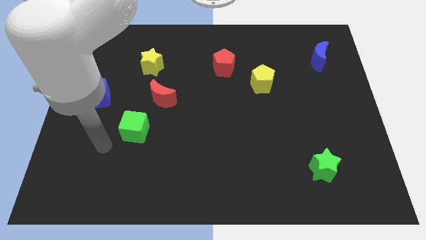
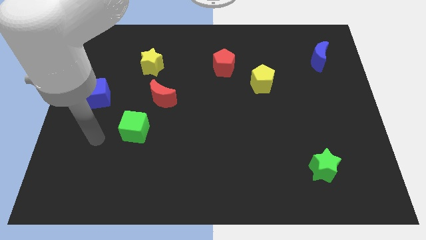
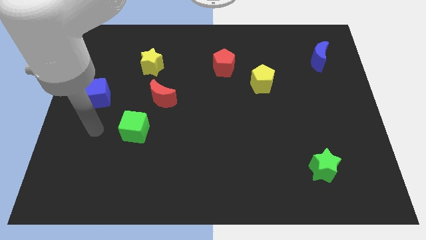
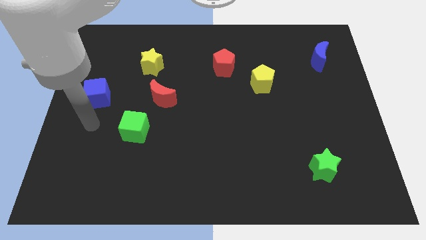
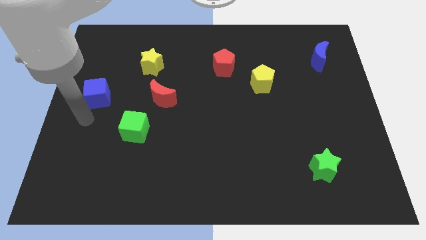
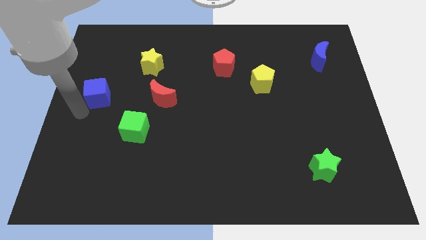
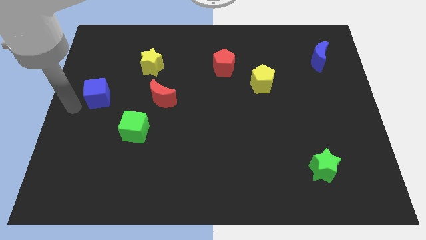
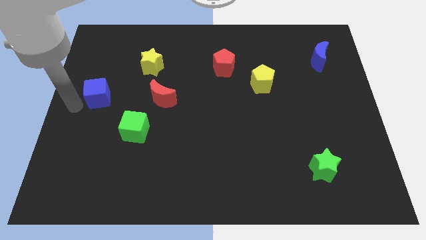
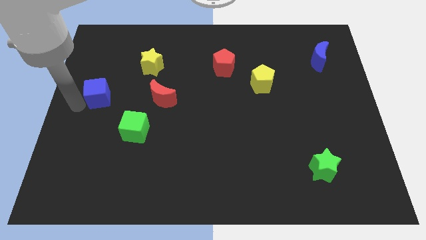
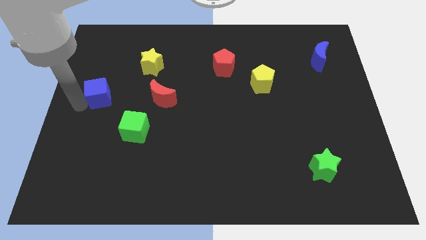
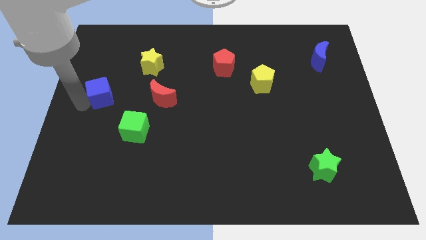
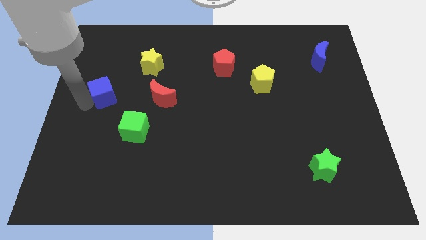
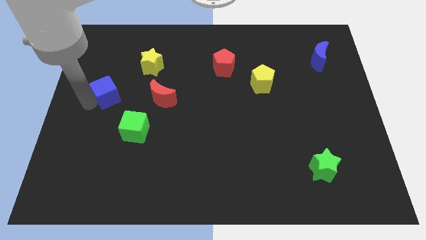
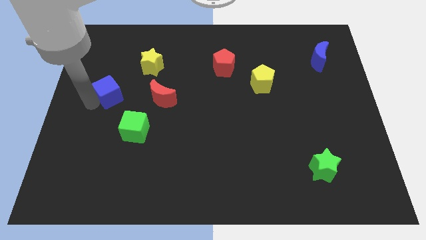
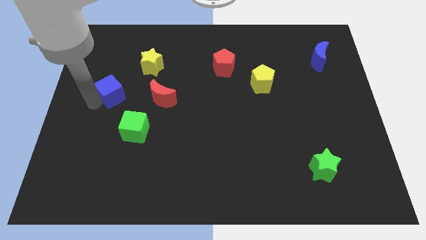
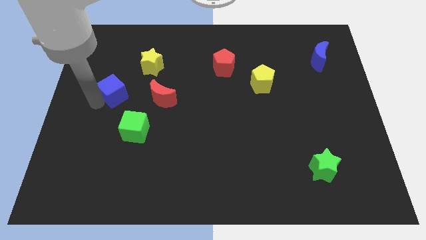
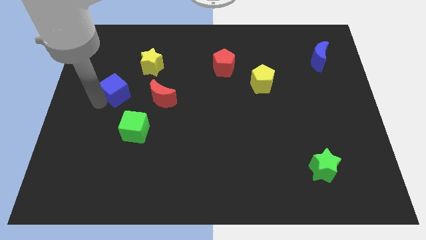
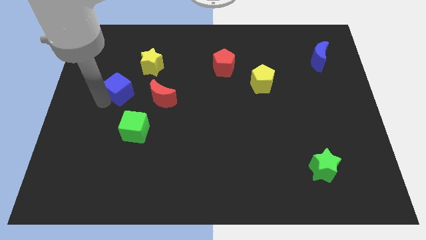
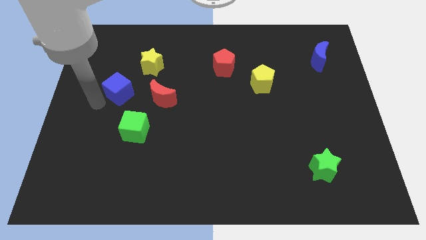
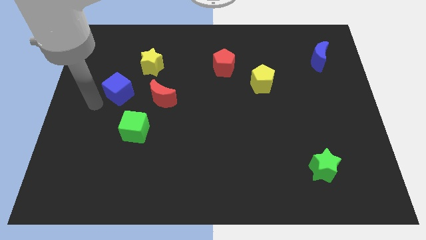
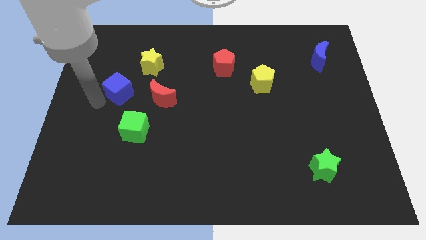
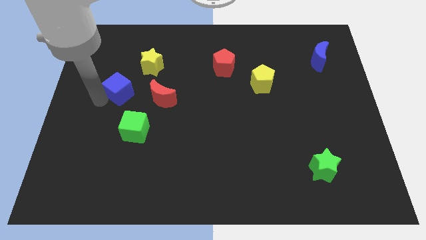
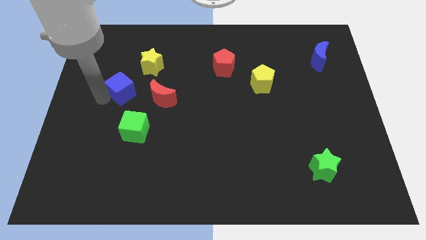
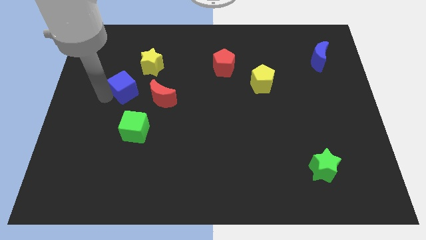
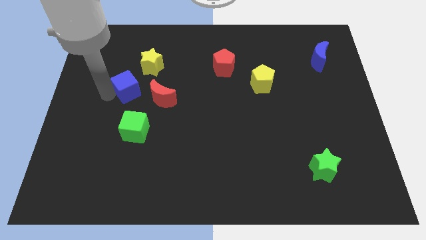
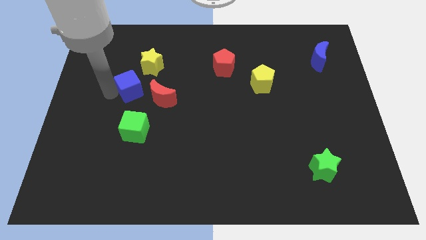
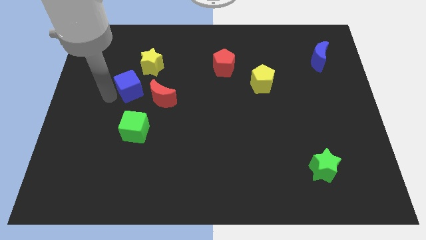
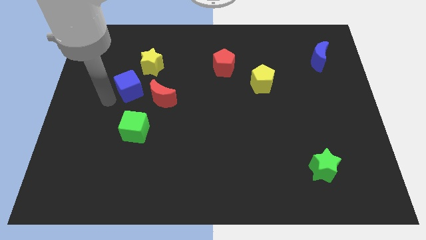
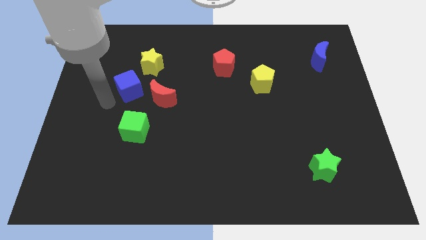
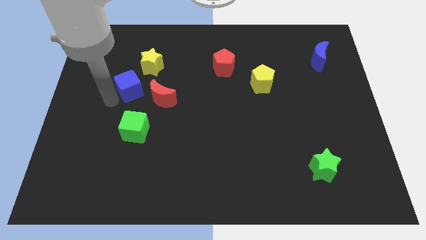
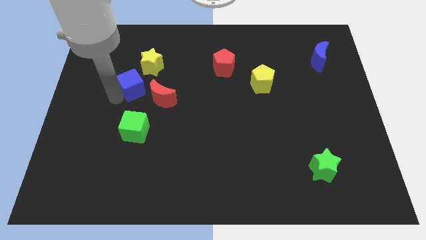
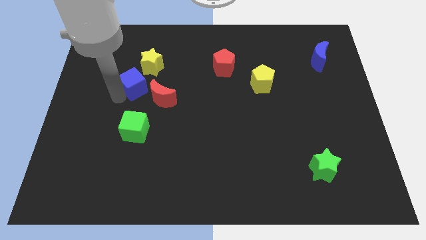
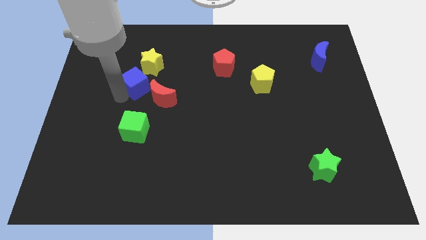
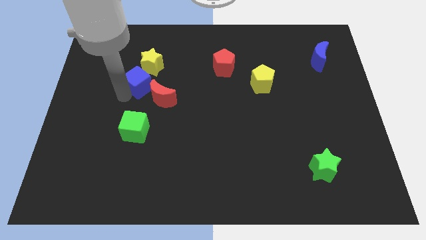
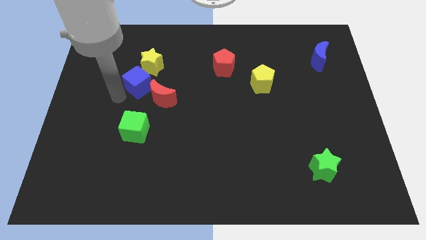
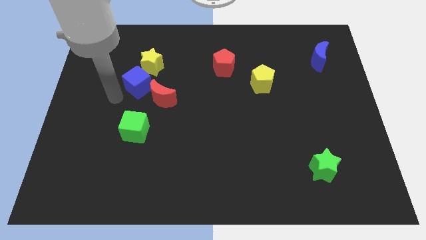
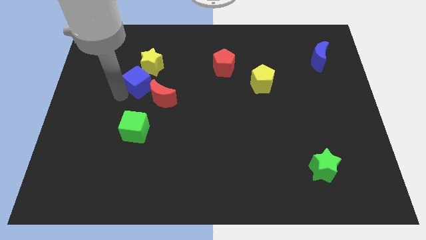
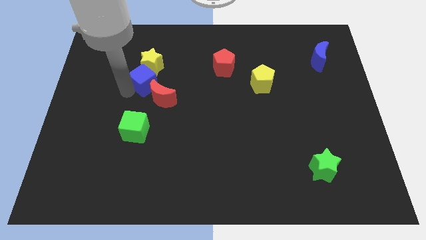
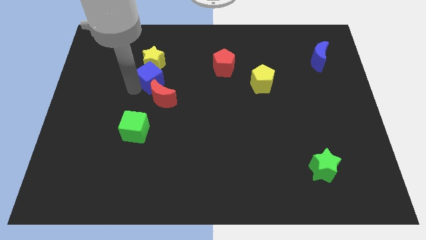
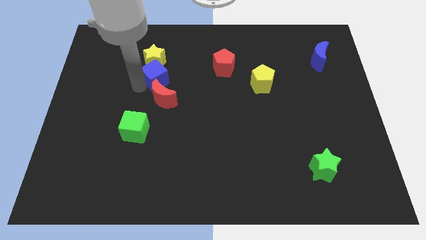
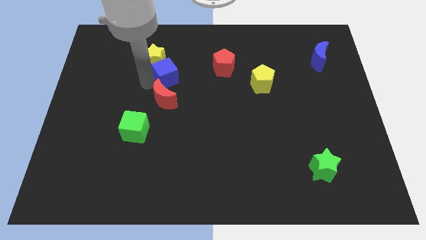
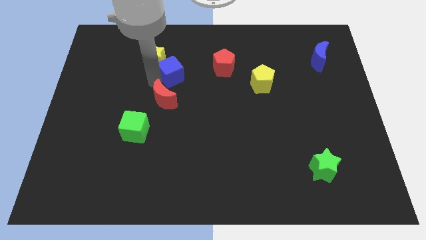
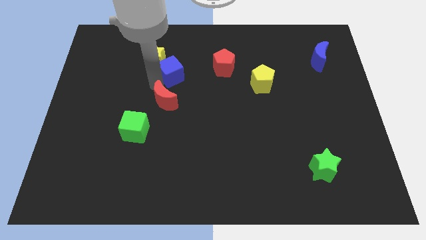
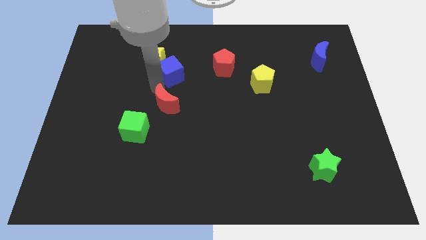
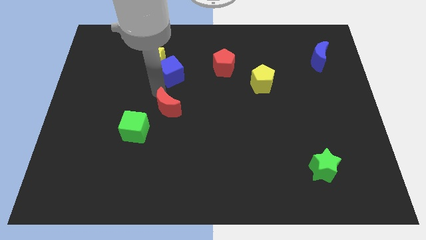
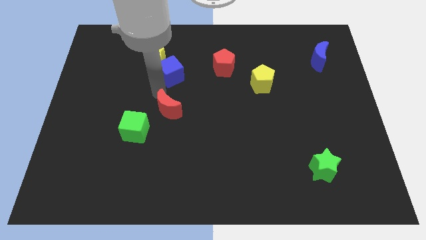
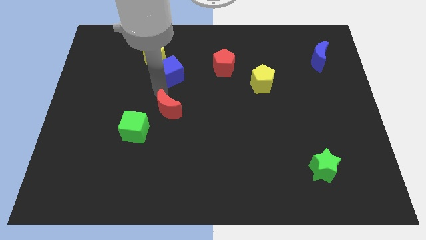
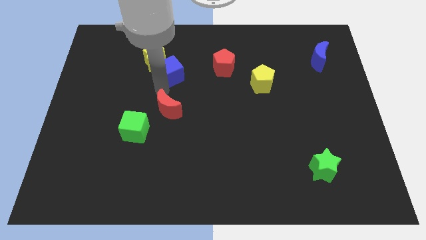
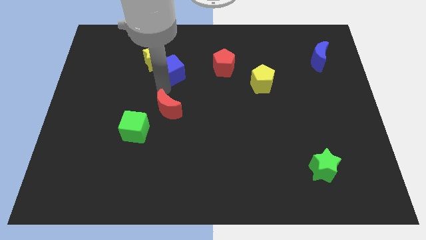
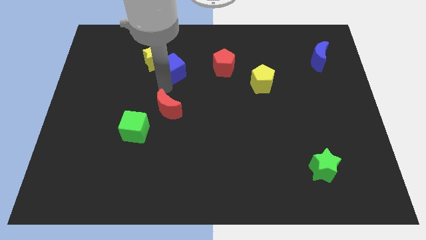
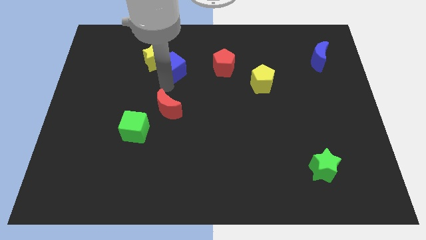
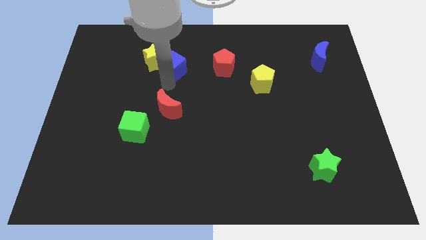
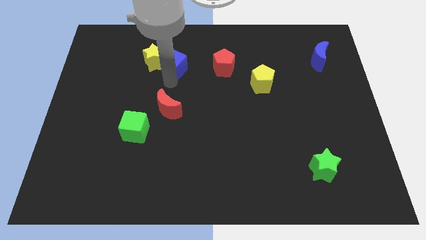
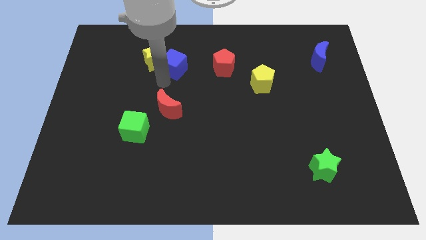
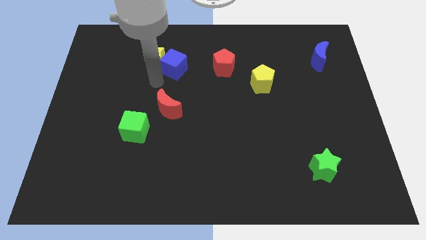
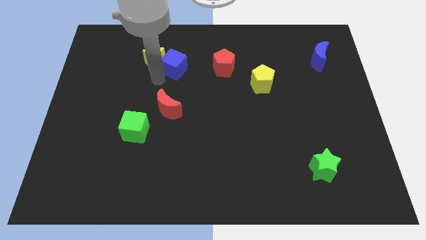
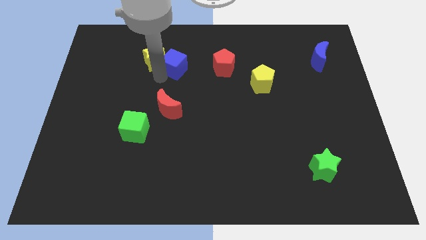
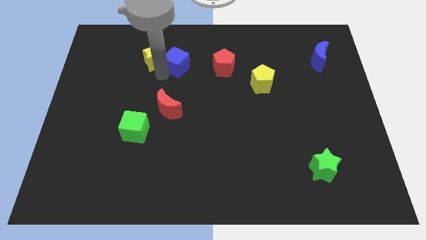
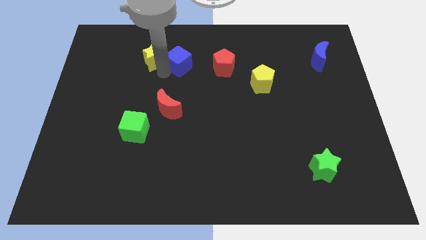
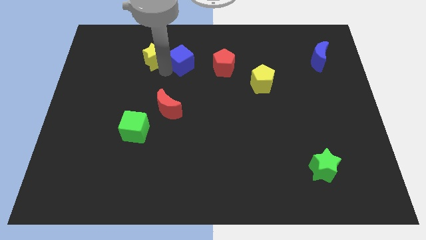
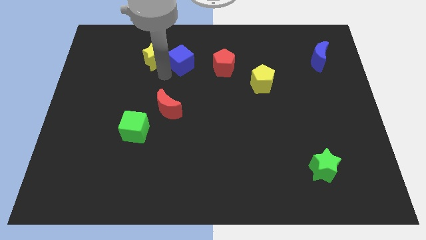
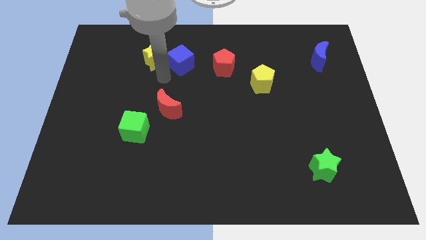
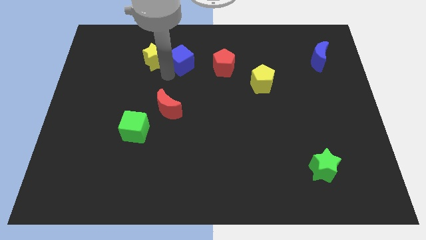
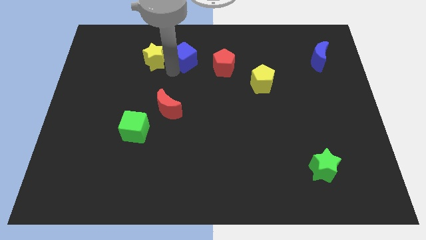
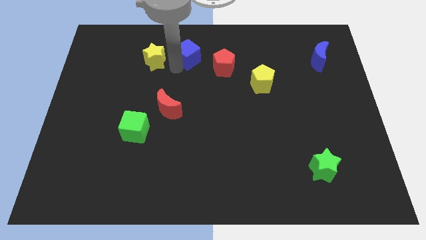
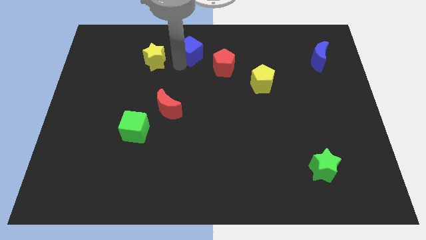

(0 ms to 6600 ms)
slide the blue cube to the top
